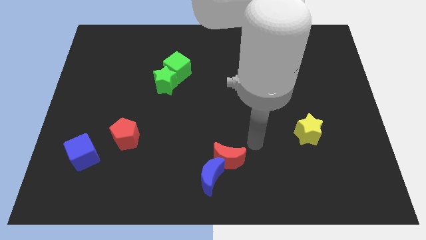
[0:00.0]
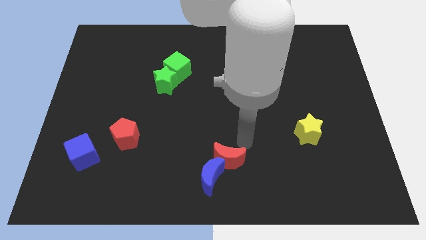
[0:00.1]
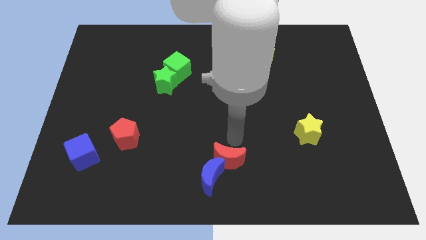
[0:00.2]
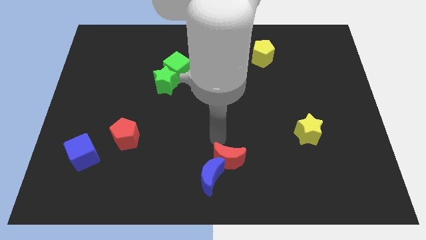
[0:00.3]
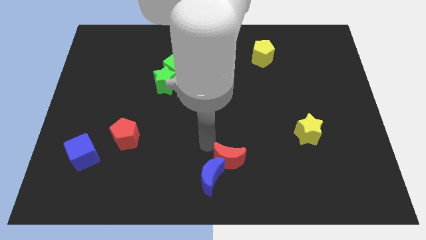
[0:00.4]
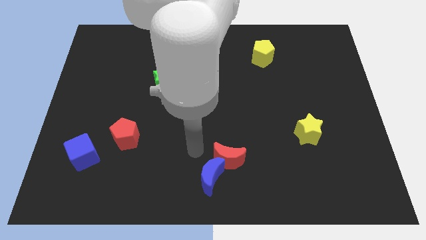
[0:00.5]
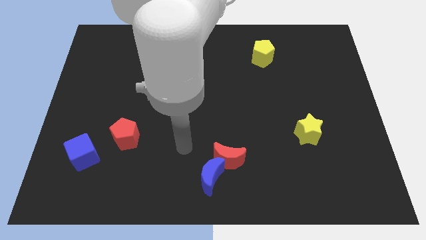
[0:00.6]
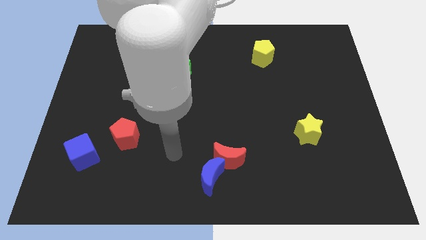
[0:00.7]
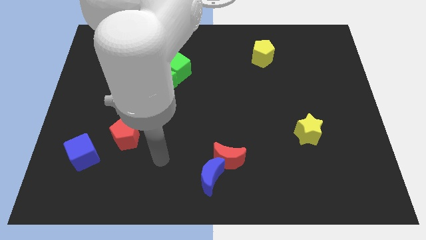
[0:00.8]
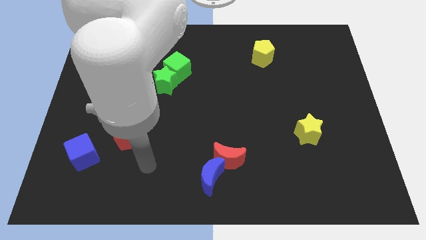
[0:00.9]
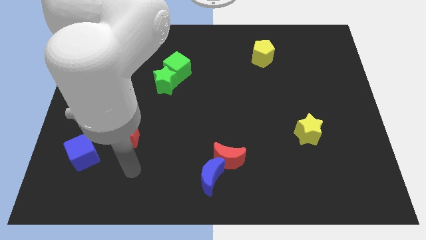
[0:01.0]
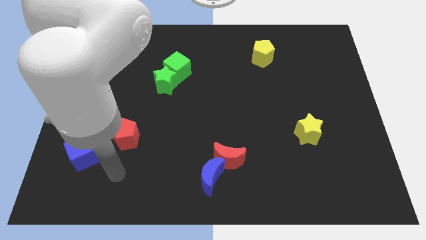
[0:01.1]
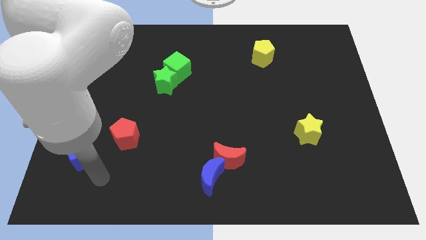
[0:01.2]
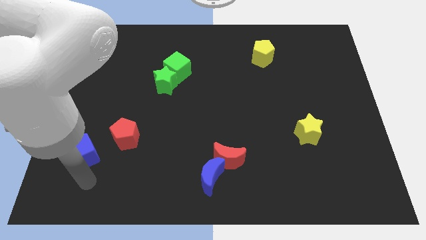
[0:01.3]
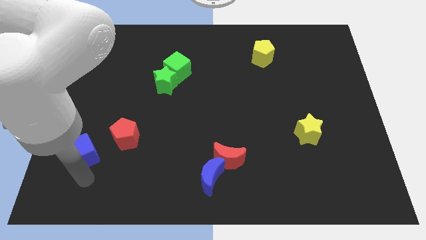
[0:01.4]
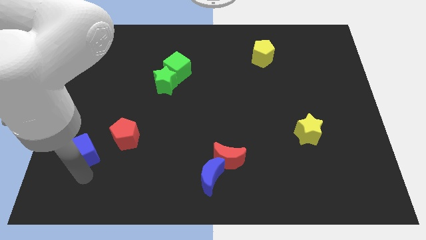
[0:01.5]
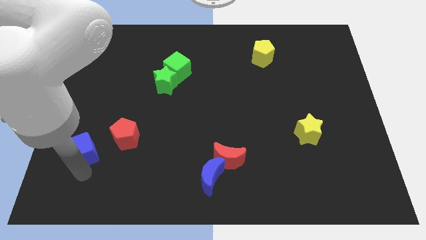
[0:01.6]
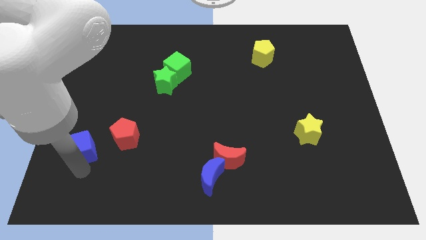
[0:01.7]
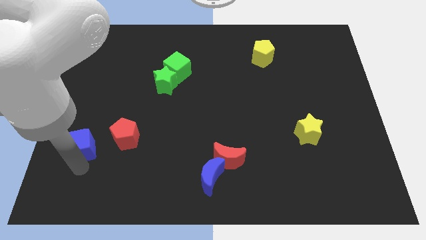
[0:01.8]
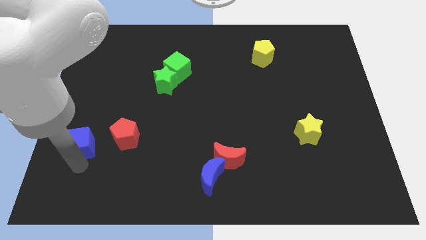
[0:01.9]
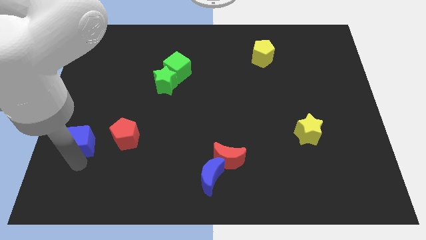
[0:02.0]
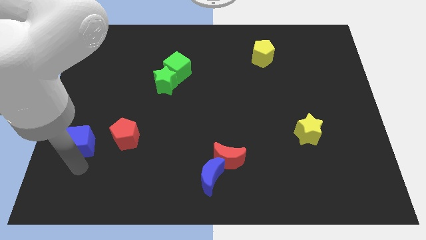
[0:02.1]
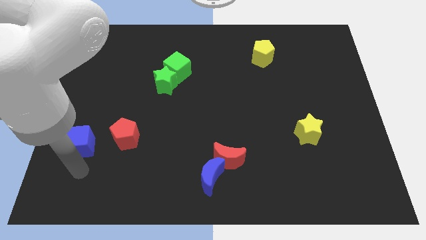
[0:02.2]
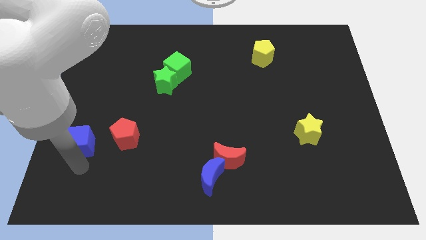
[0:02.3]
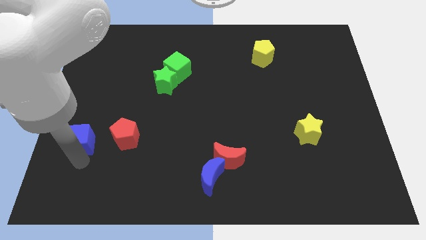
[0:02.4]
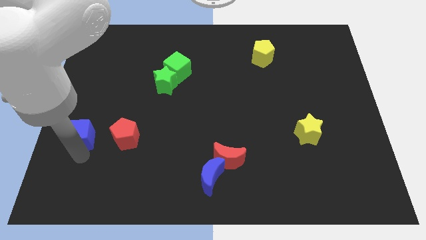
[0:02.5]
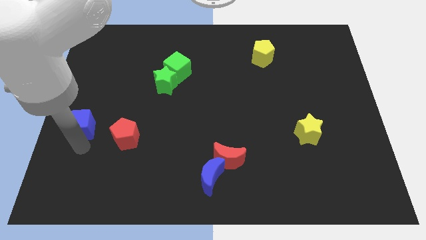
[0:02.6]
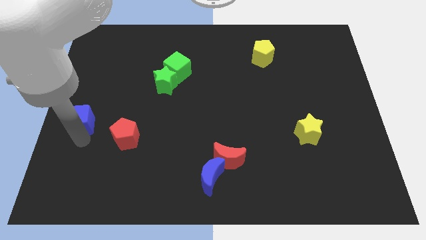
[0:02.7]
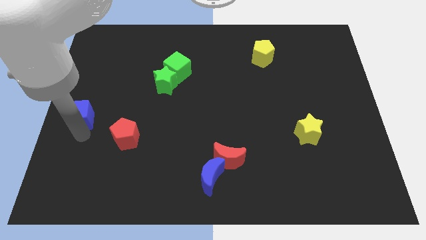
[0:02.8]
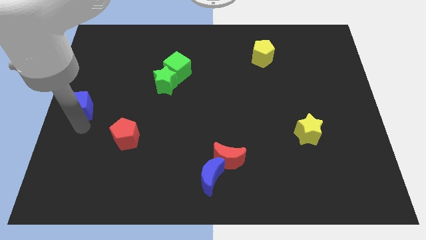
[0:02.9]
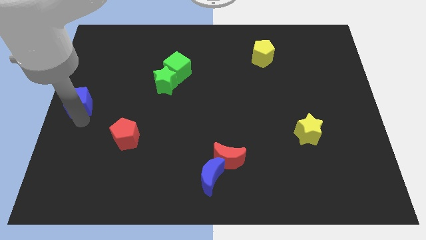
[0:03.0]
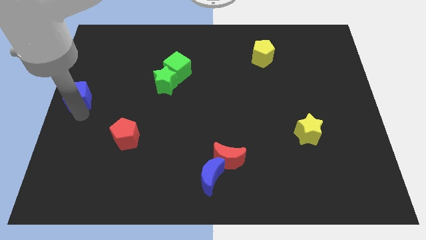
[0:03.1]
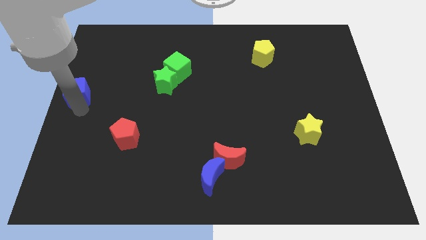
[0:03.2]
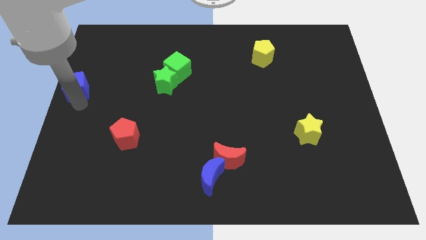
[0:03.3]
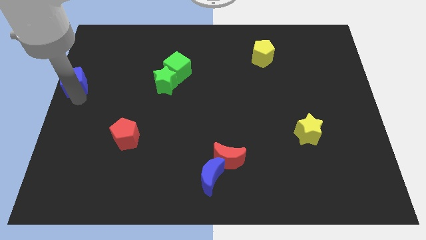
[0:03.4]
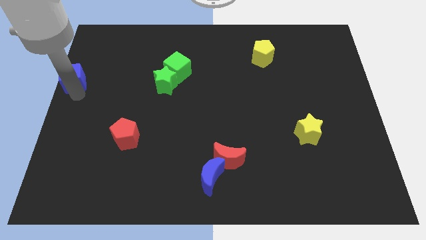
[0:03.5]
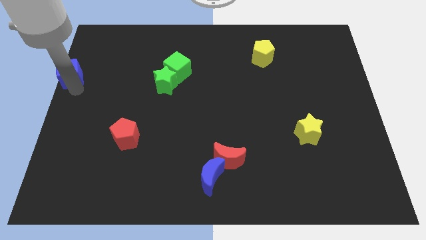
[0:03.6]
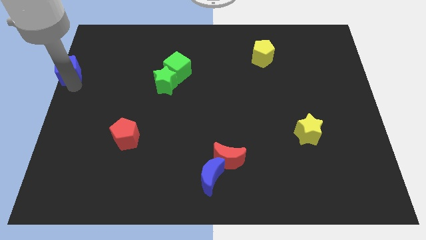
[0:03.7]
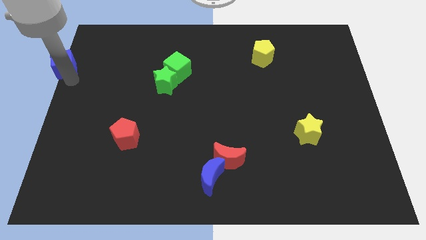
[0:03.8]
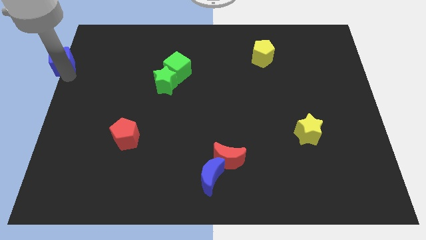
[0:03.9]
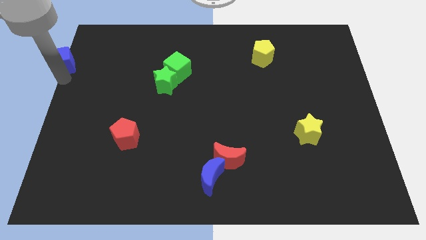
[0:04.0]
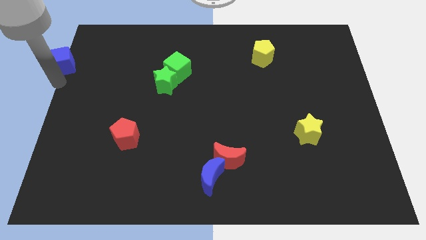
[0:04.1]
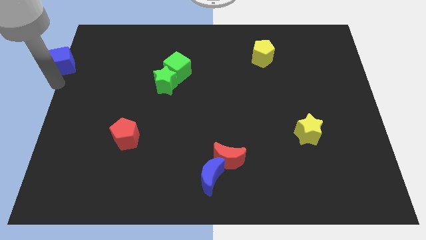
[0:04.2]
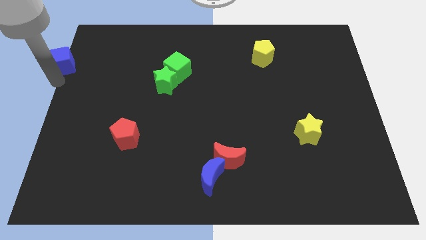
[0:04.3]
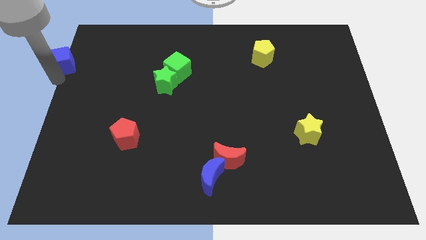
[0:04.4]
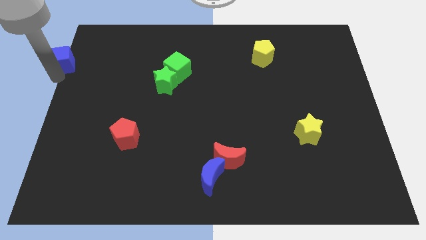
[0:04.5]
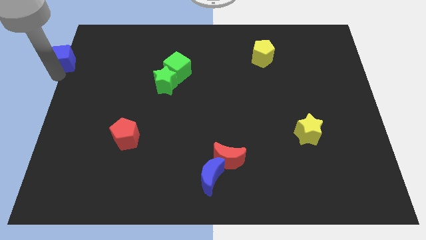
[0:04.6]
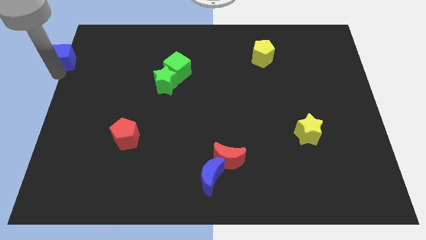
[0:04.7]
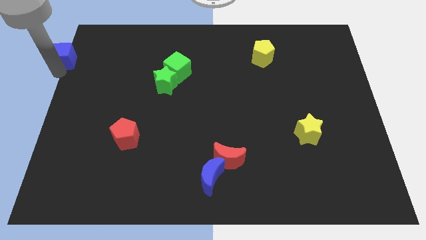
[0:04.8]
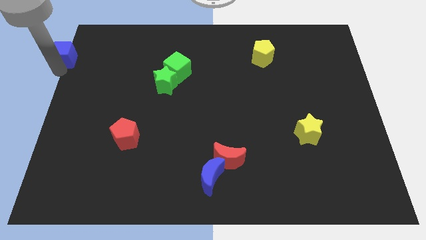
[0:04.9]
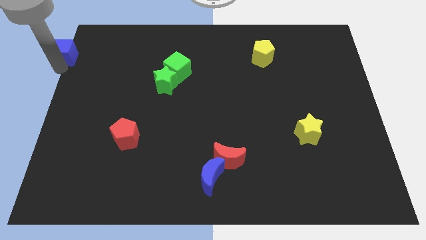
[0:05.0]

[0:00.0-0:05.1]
put the blue cube to the upper left corner
